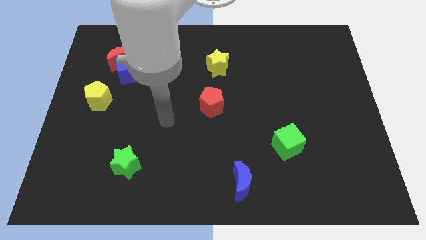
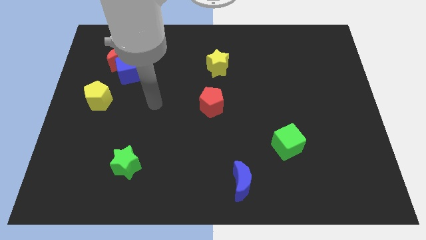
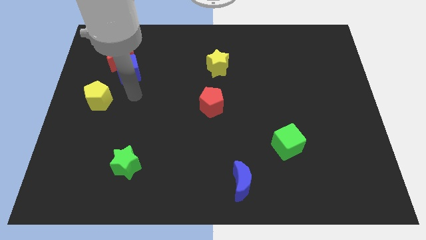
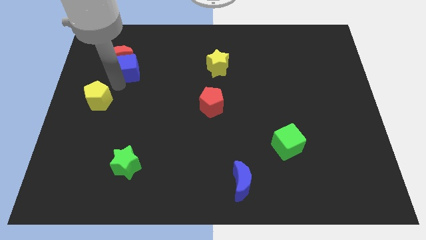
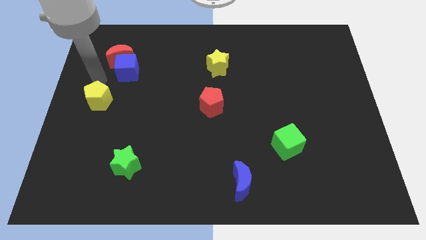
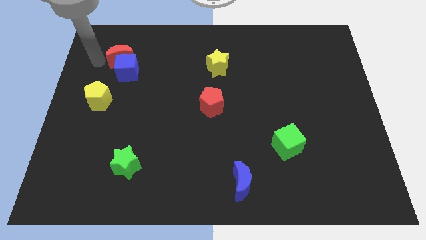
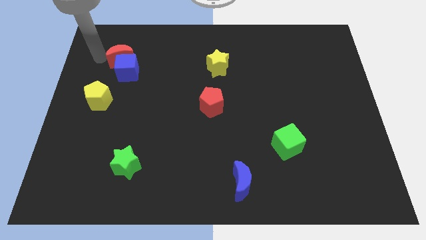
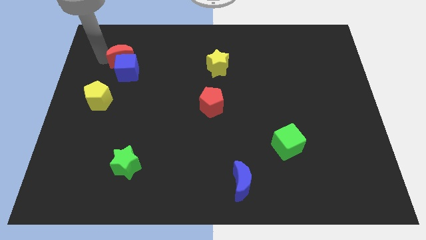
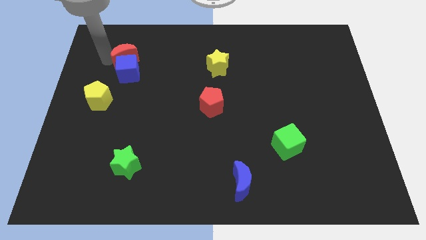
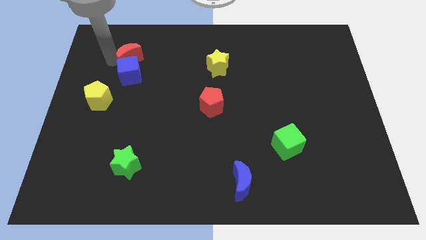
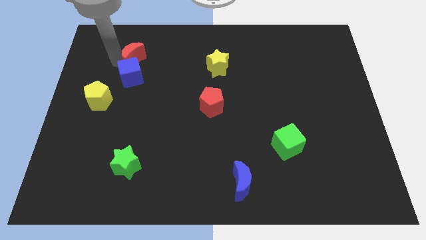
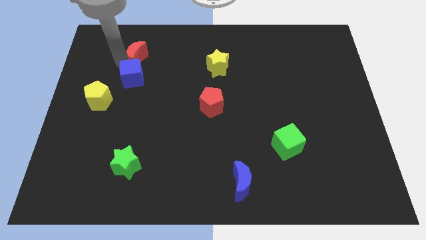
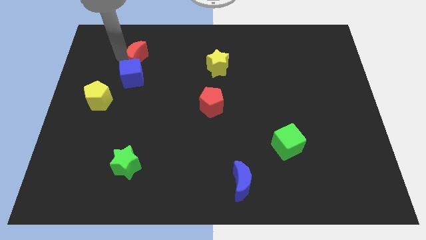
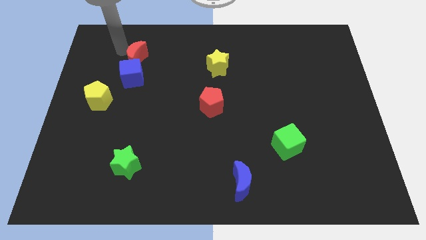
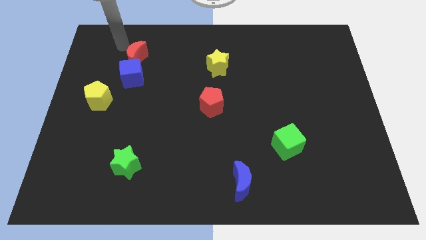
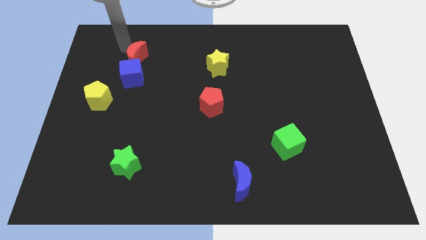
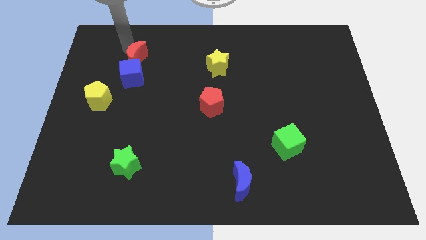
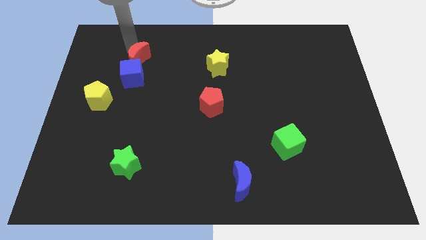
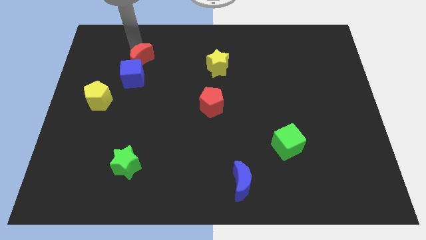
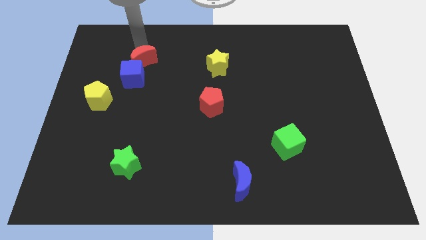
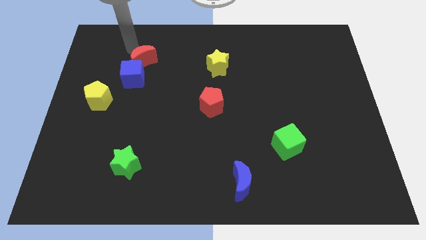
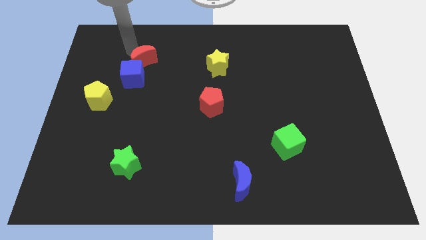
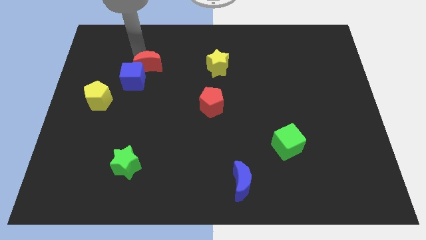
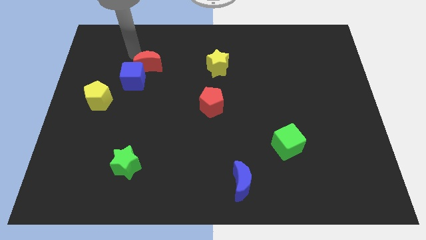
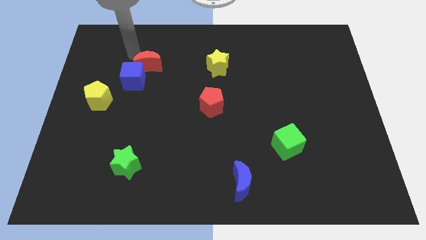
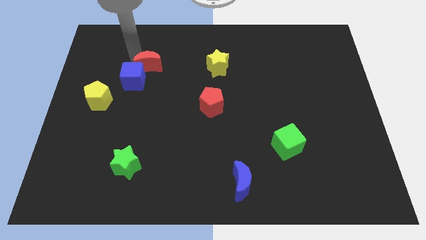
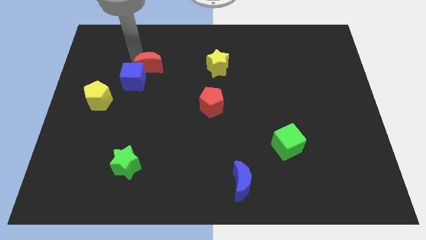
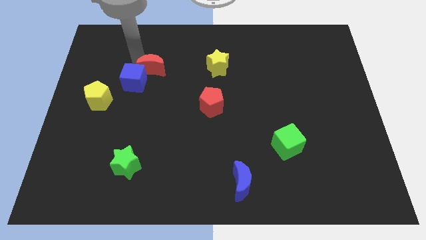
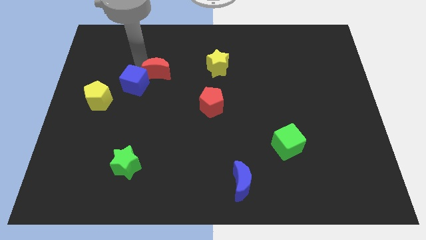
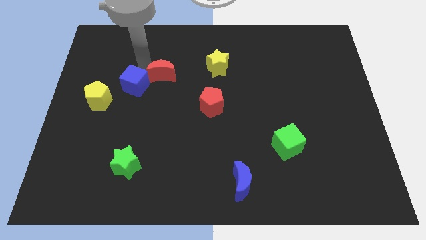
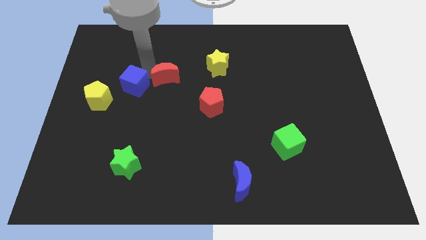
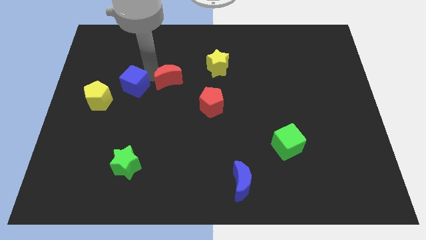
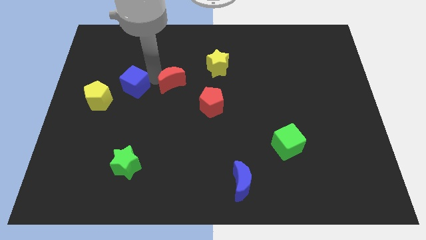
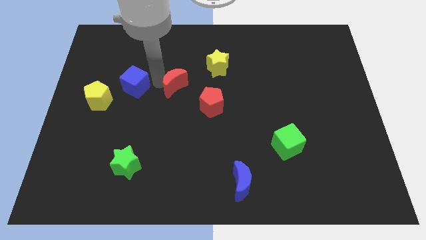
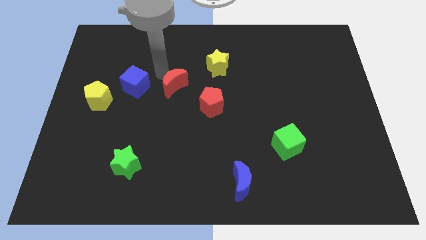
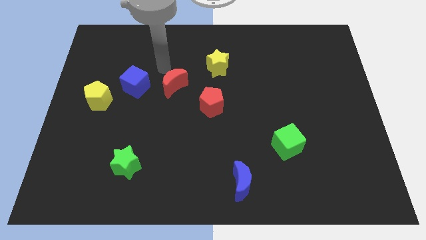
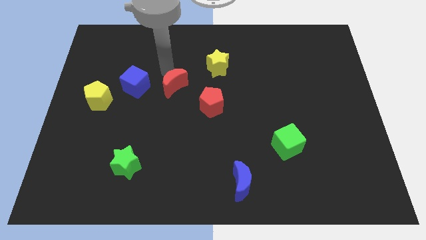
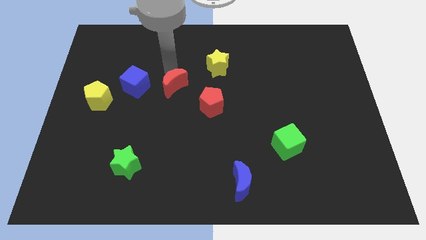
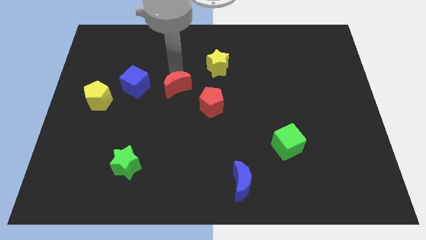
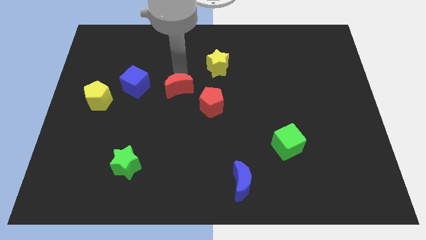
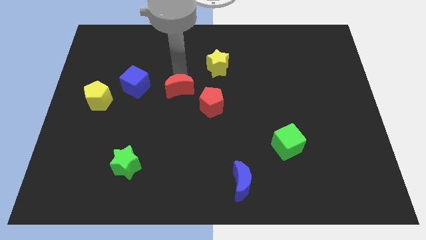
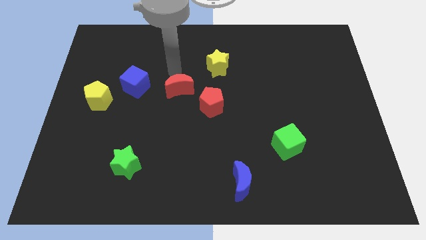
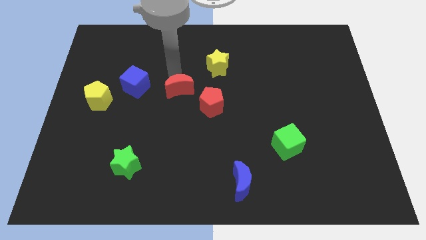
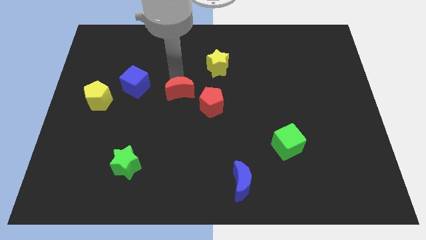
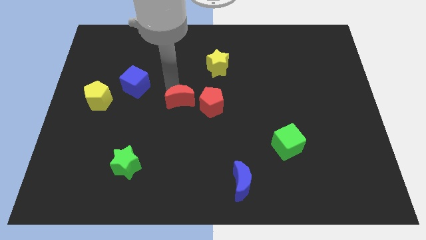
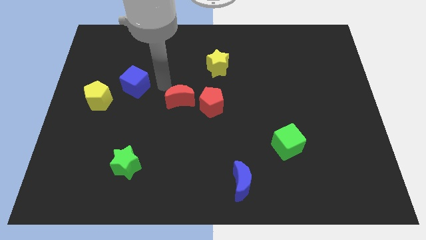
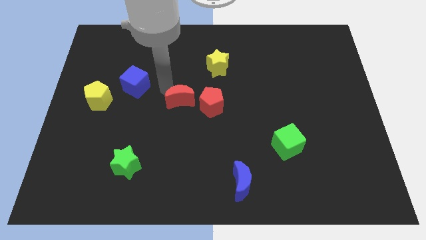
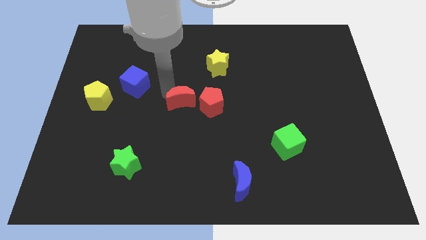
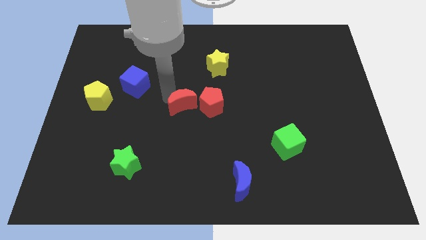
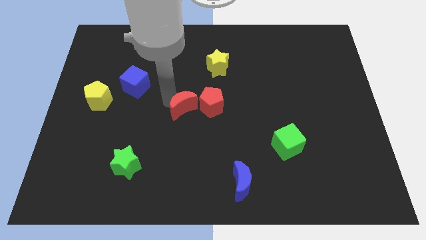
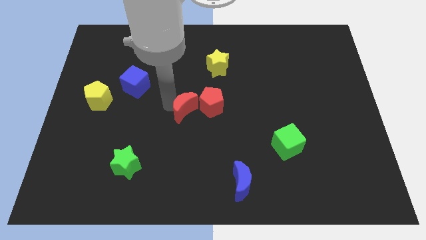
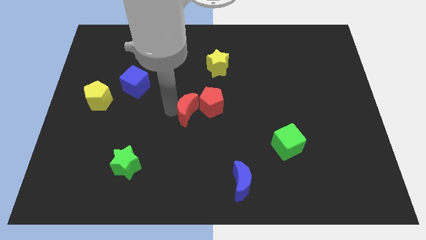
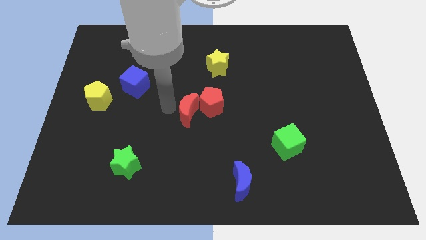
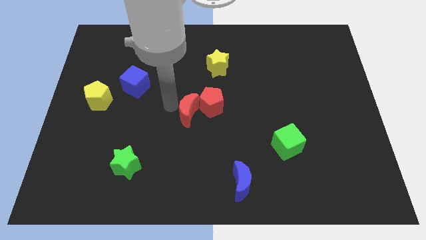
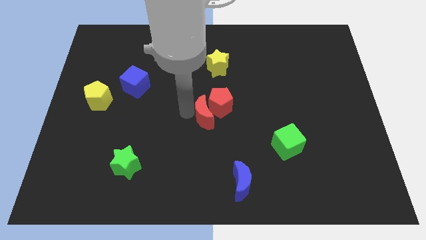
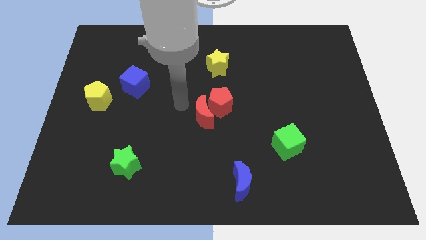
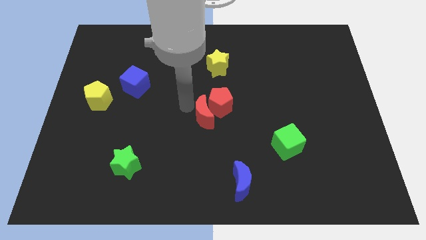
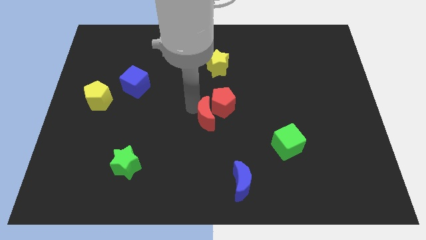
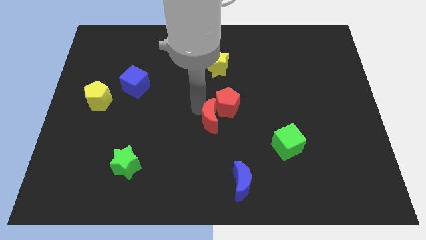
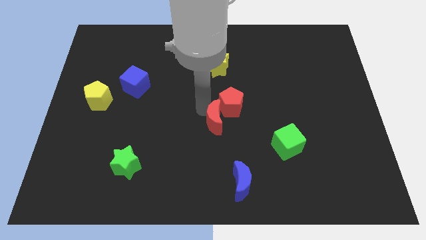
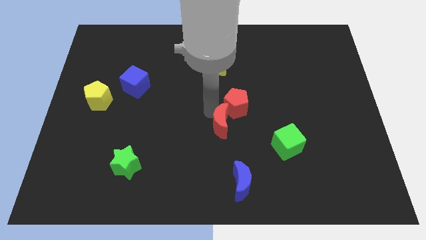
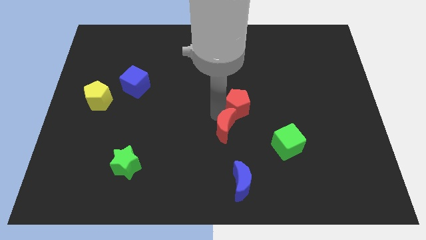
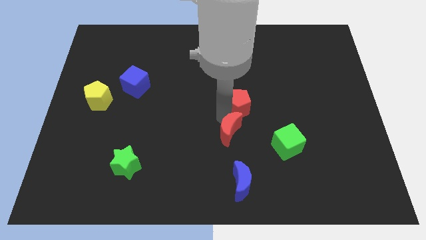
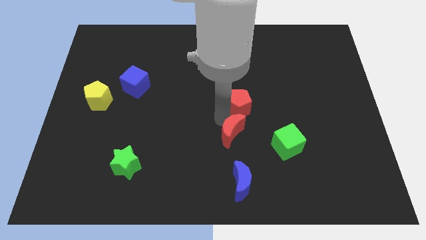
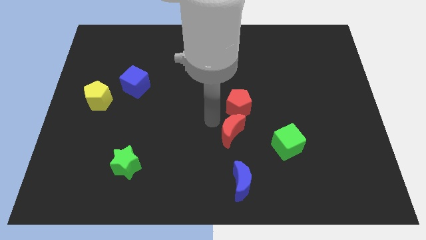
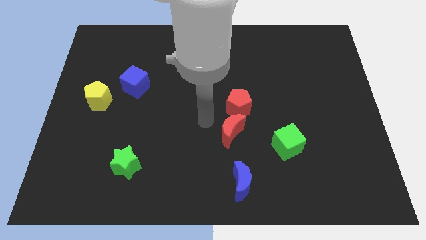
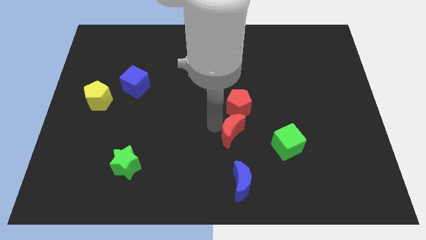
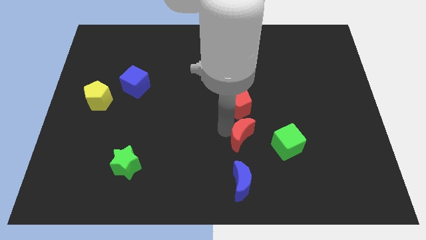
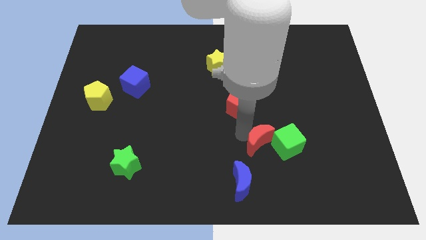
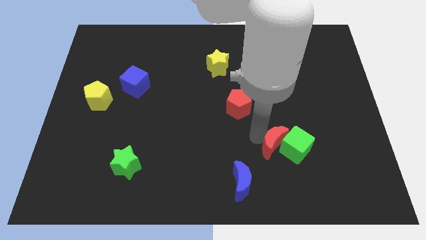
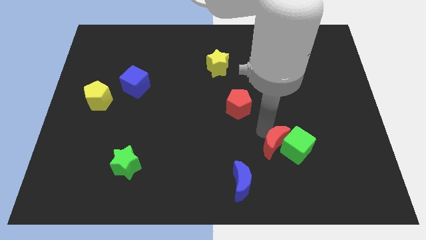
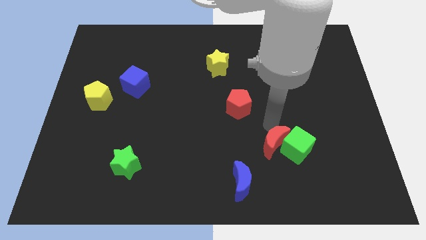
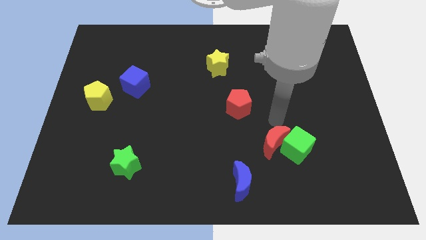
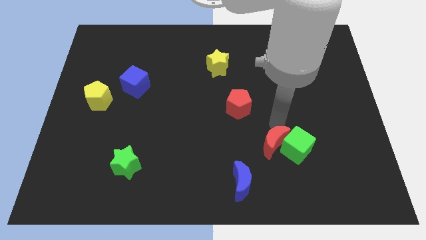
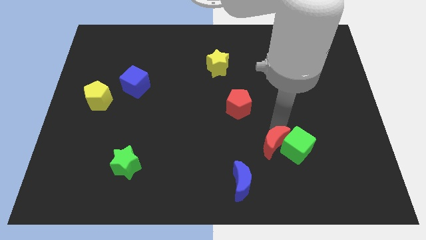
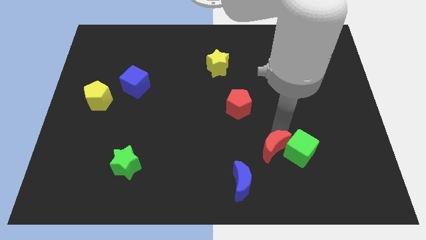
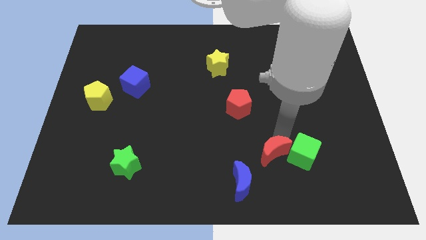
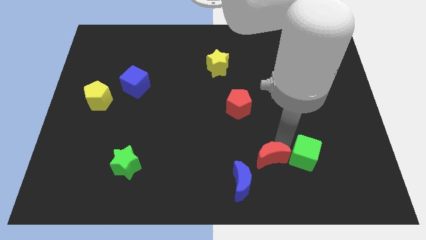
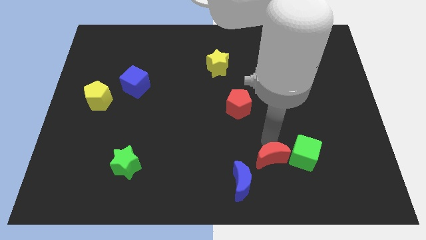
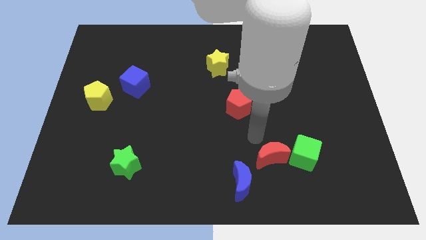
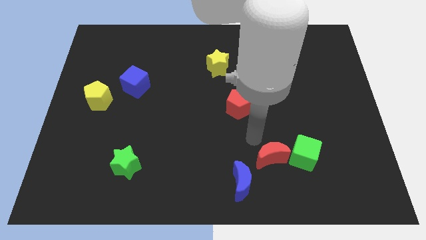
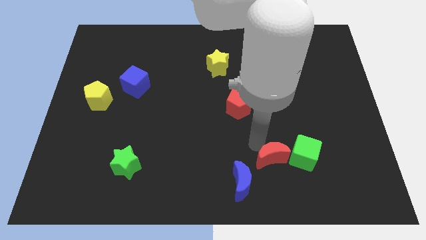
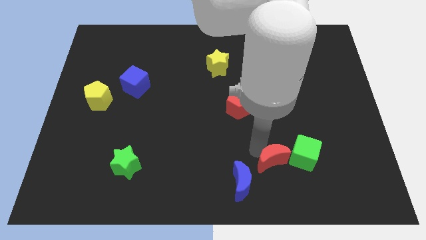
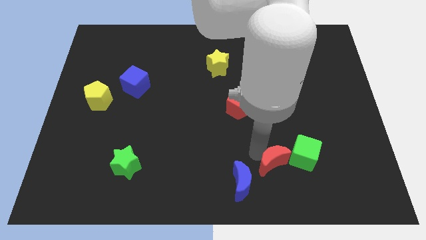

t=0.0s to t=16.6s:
put the red moon to the right side of the blue moon
